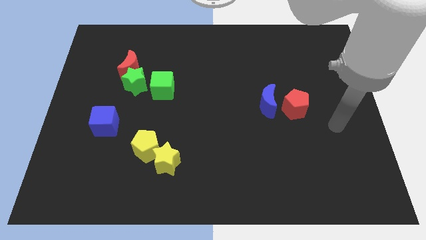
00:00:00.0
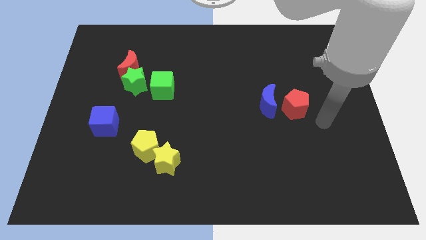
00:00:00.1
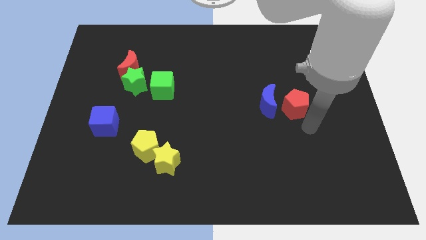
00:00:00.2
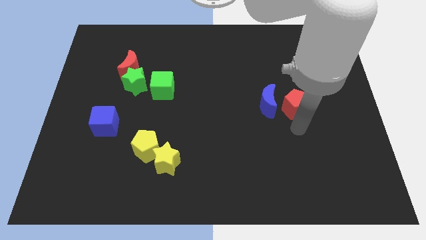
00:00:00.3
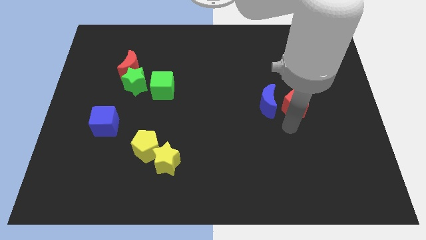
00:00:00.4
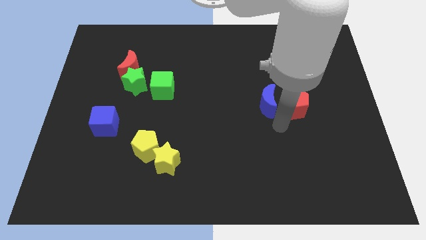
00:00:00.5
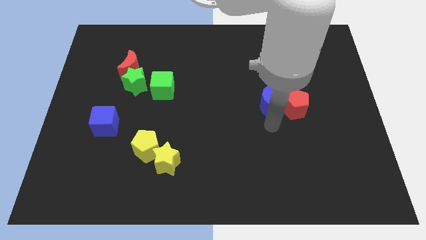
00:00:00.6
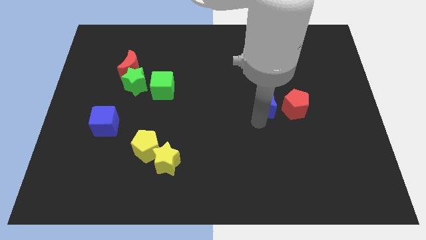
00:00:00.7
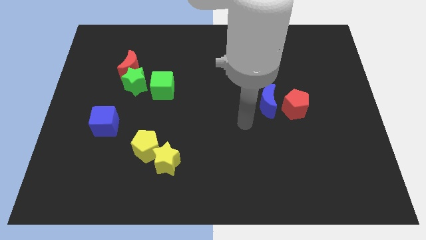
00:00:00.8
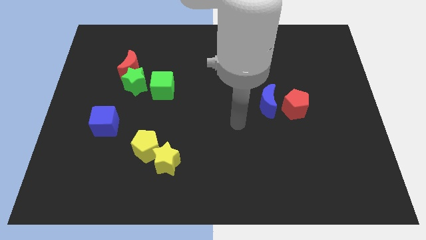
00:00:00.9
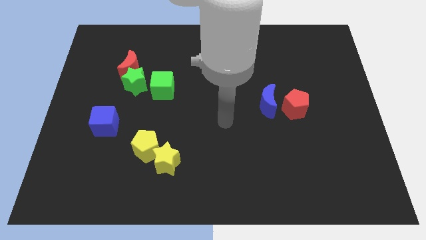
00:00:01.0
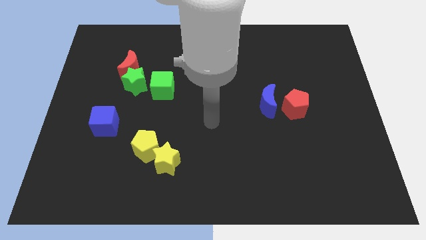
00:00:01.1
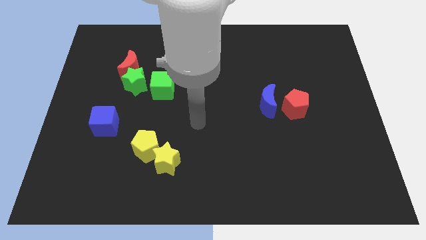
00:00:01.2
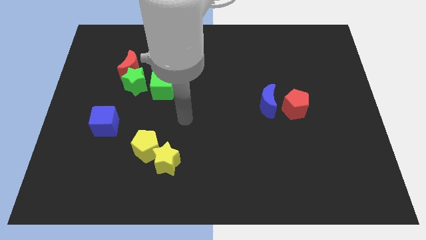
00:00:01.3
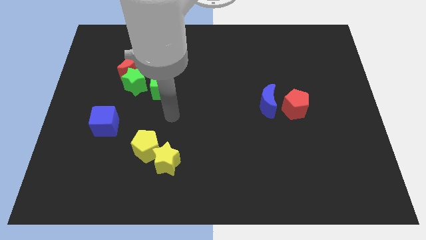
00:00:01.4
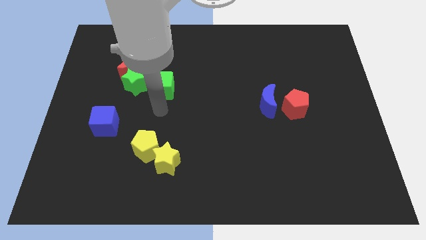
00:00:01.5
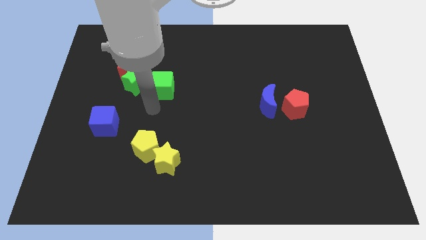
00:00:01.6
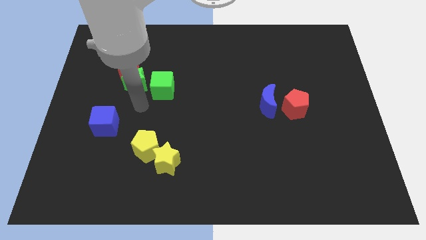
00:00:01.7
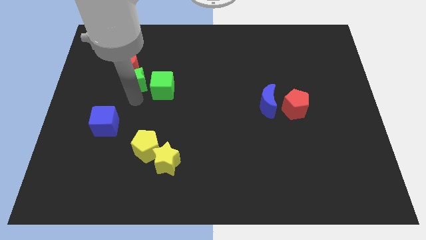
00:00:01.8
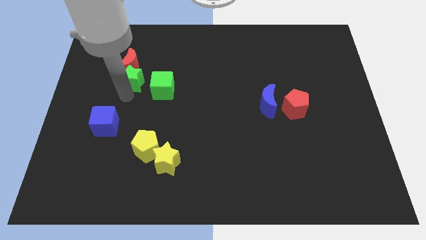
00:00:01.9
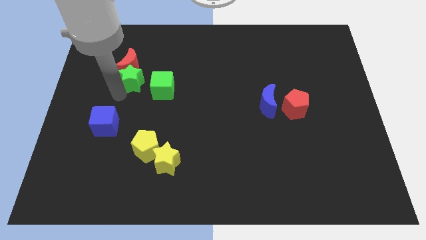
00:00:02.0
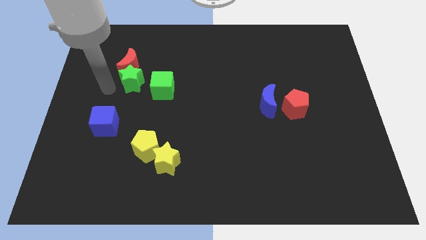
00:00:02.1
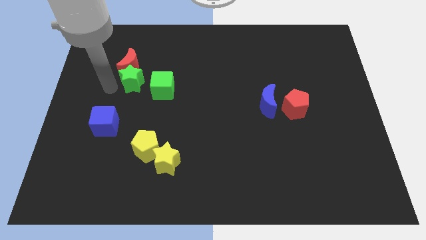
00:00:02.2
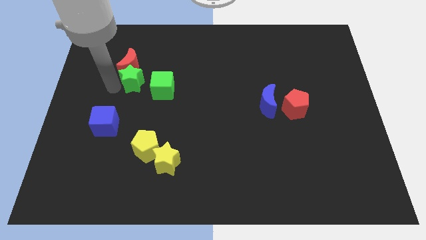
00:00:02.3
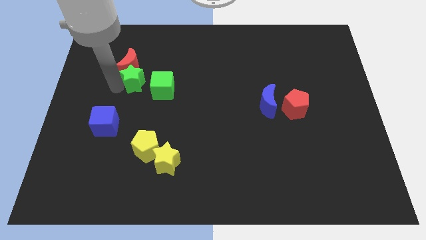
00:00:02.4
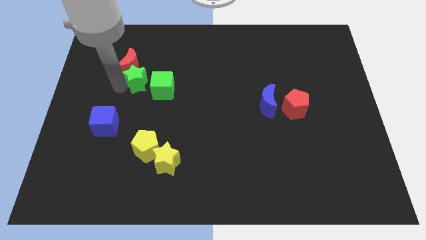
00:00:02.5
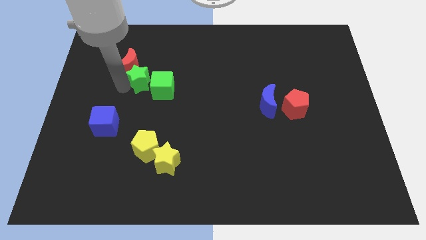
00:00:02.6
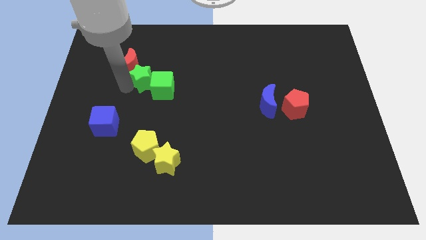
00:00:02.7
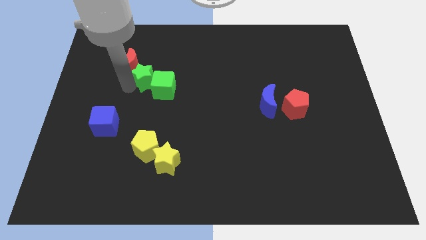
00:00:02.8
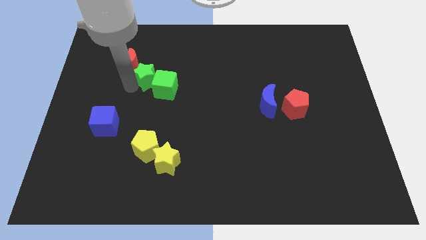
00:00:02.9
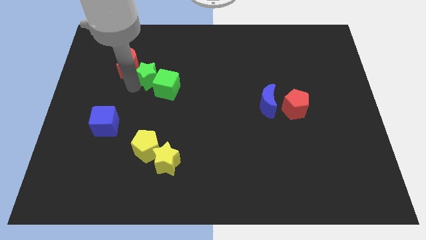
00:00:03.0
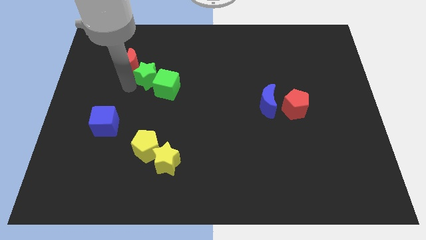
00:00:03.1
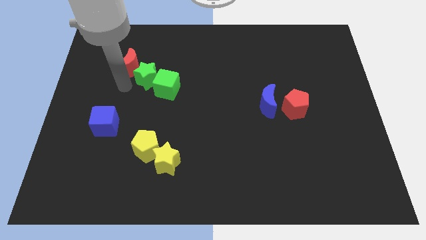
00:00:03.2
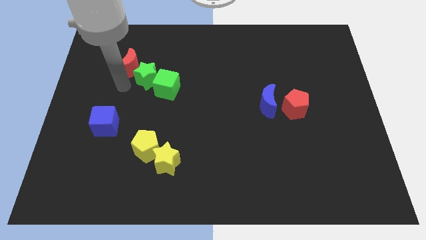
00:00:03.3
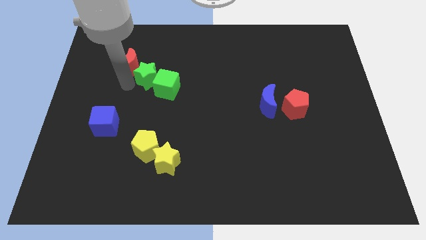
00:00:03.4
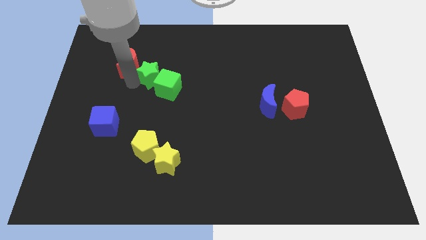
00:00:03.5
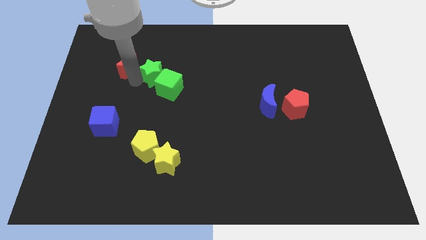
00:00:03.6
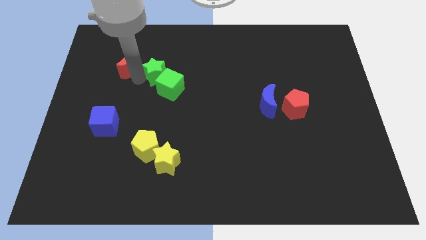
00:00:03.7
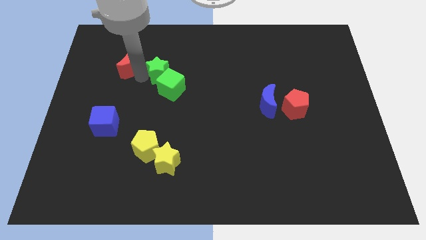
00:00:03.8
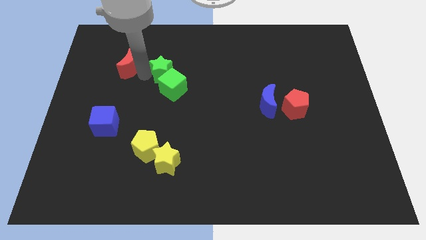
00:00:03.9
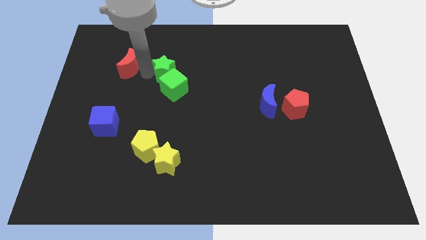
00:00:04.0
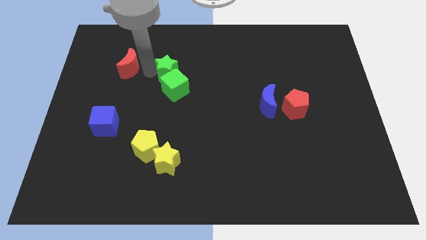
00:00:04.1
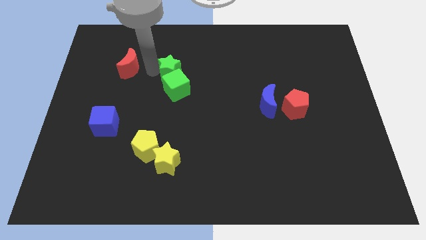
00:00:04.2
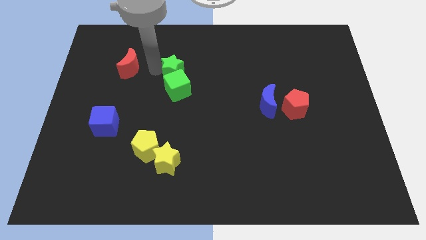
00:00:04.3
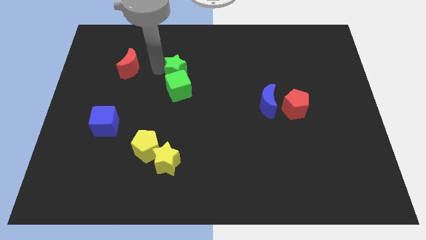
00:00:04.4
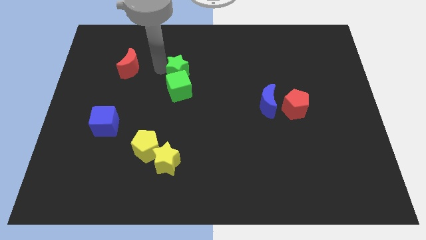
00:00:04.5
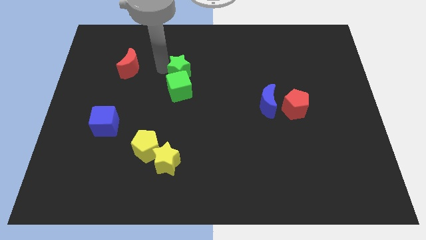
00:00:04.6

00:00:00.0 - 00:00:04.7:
move the green star to the middle of the board

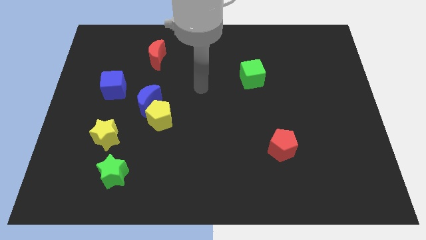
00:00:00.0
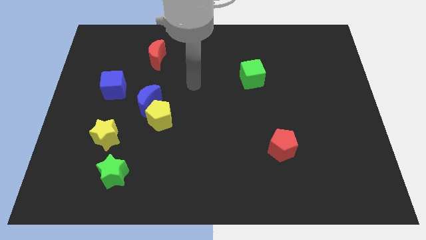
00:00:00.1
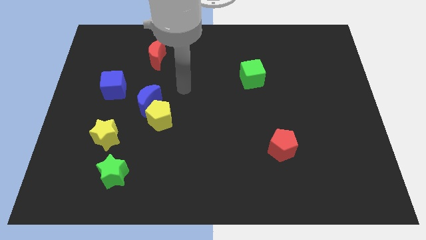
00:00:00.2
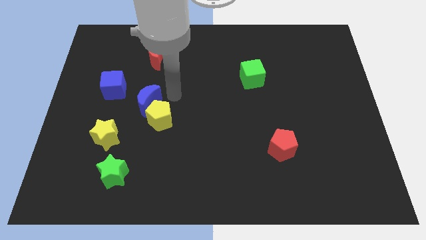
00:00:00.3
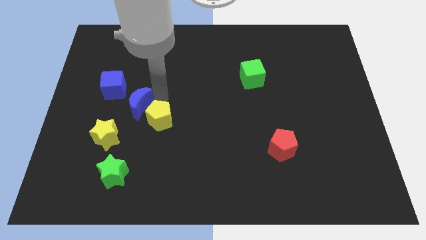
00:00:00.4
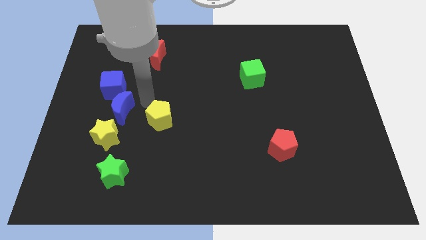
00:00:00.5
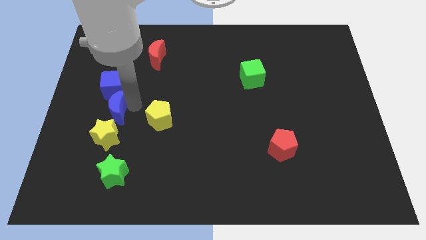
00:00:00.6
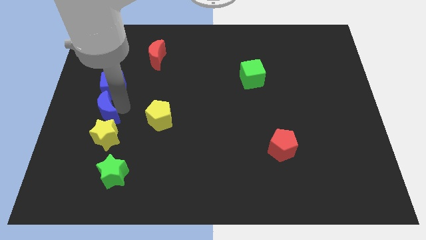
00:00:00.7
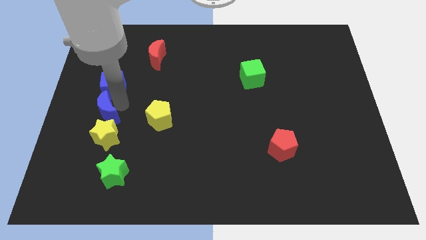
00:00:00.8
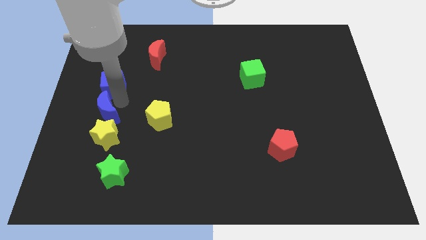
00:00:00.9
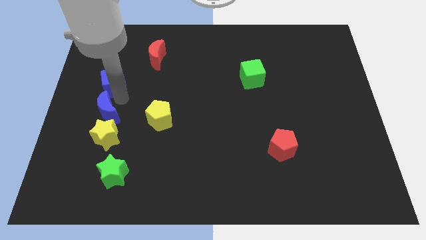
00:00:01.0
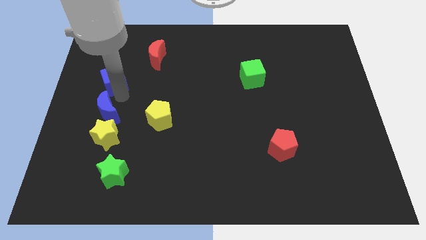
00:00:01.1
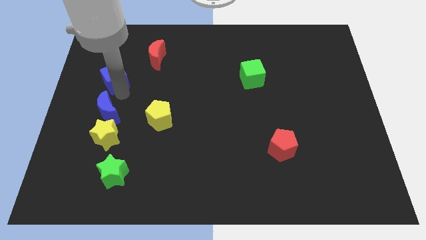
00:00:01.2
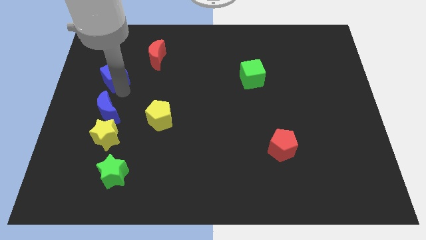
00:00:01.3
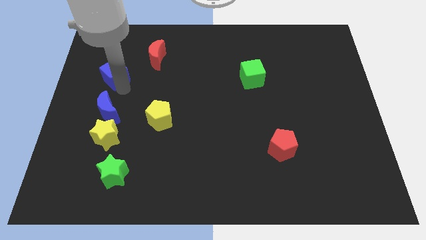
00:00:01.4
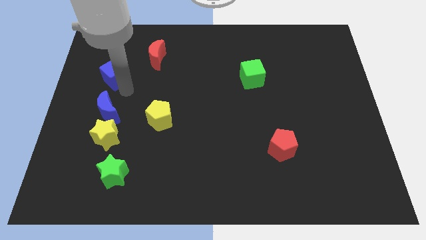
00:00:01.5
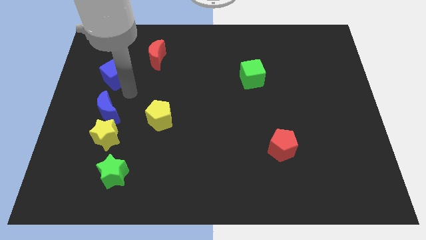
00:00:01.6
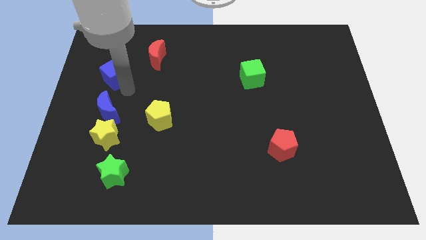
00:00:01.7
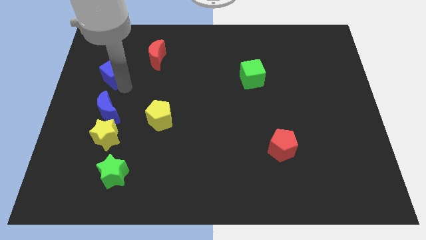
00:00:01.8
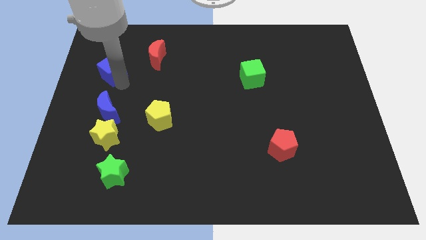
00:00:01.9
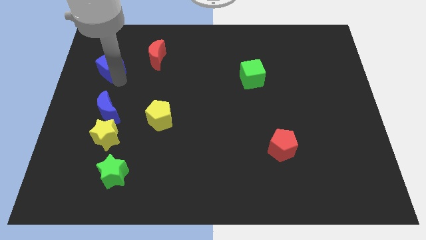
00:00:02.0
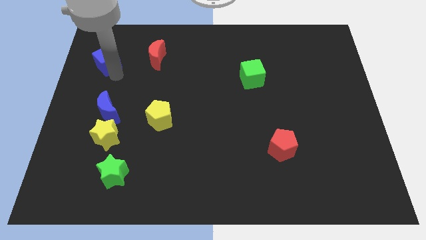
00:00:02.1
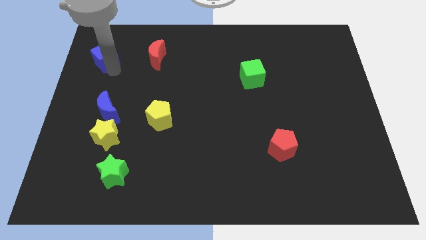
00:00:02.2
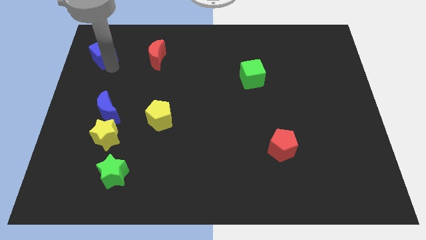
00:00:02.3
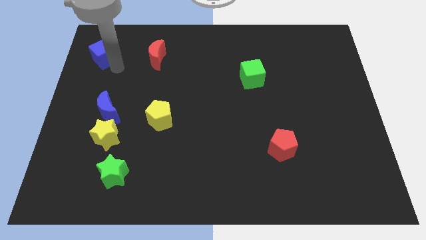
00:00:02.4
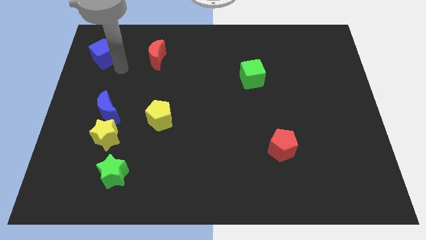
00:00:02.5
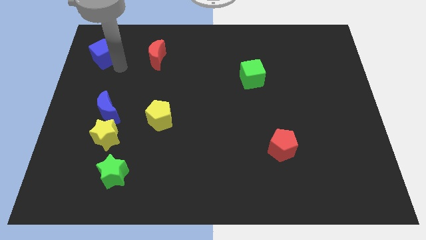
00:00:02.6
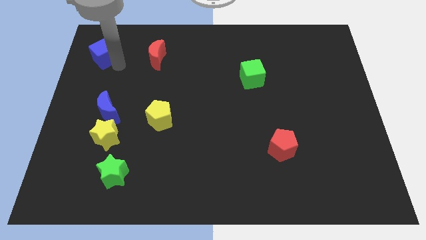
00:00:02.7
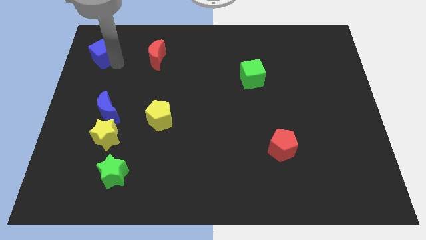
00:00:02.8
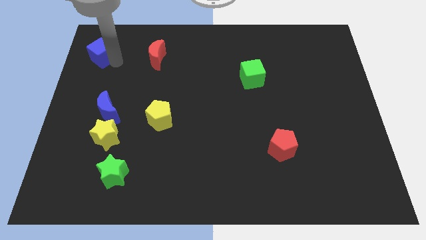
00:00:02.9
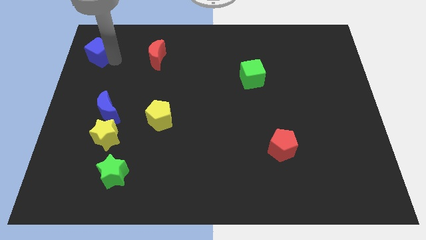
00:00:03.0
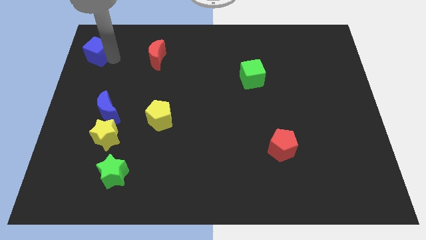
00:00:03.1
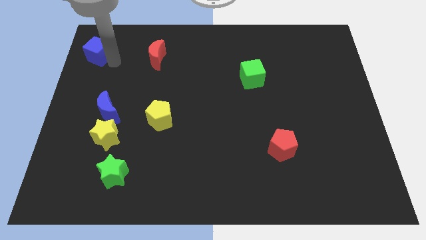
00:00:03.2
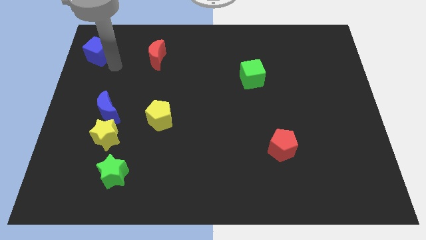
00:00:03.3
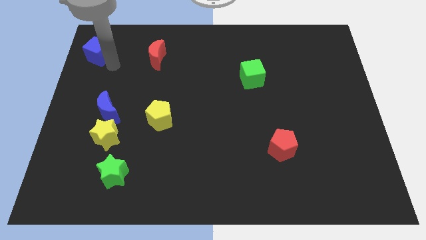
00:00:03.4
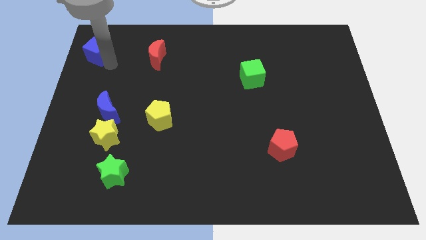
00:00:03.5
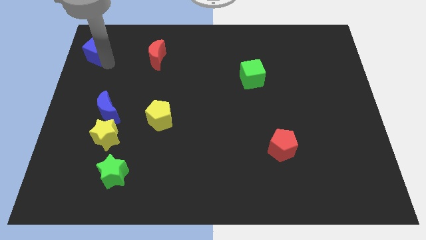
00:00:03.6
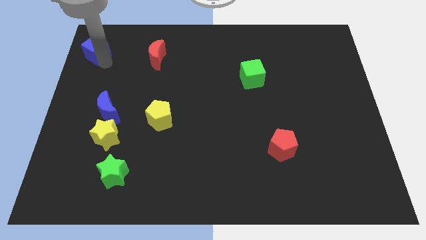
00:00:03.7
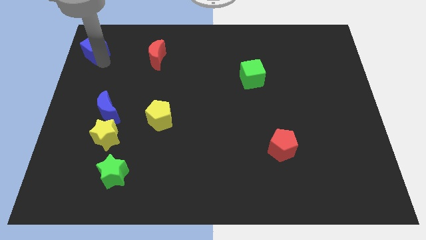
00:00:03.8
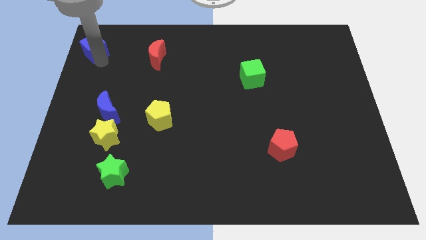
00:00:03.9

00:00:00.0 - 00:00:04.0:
slide the blue cube to the upper left corner
